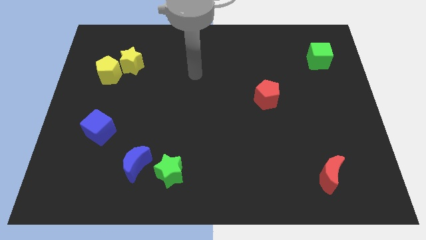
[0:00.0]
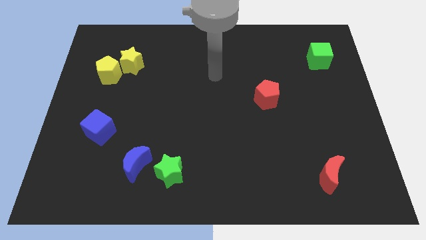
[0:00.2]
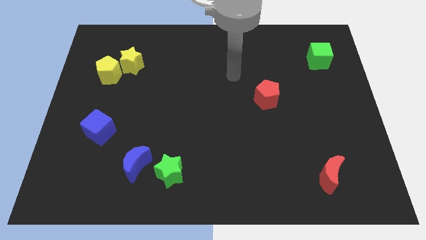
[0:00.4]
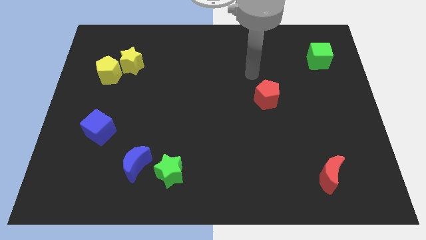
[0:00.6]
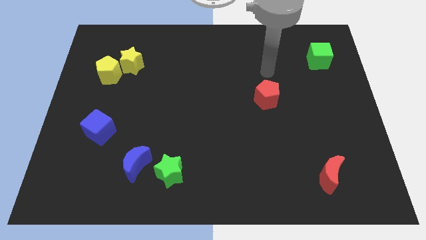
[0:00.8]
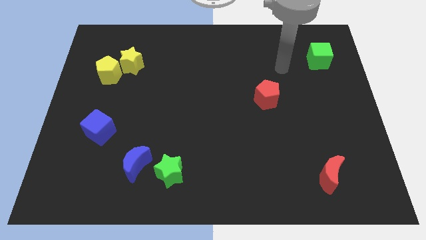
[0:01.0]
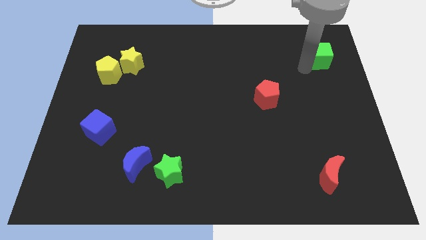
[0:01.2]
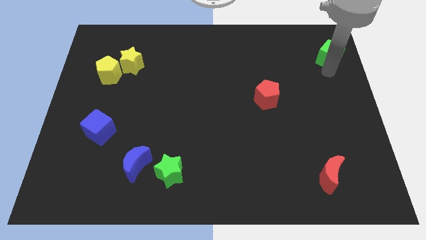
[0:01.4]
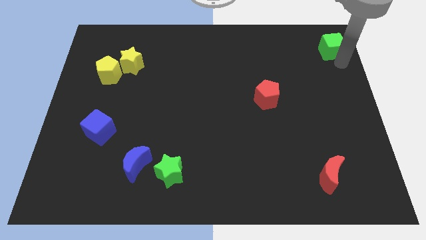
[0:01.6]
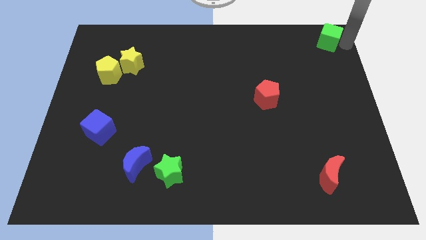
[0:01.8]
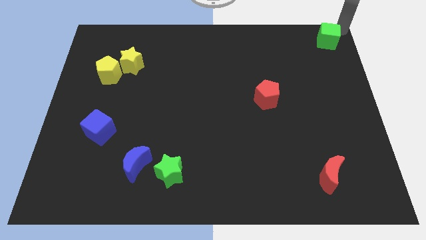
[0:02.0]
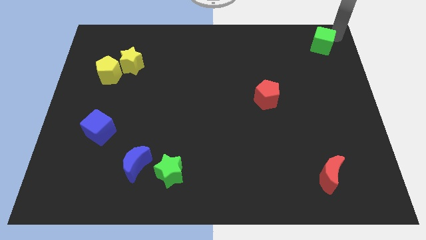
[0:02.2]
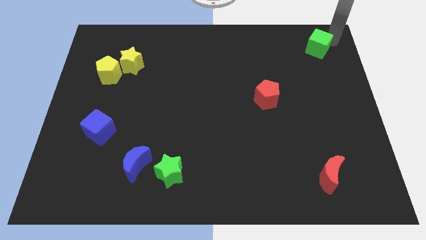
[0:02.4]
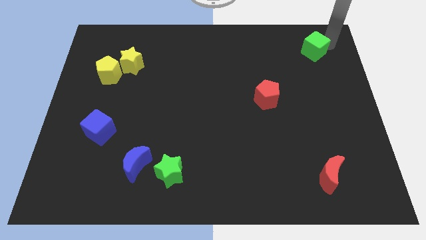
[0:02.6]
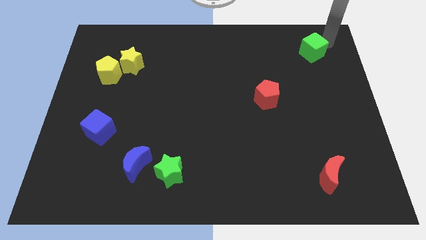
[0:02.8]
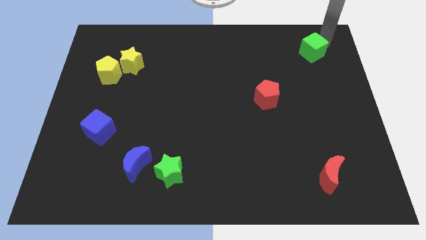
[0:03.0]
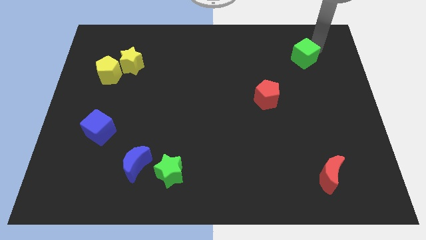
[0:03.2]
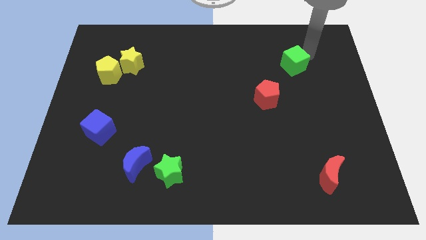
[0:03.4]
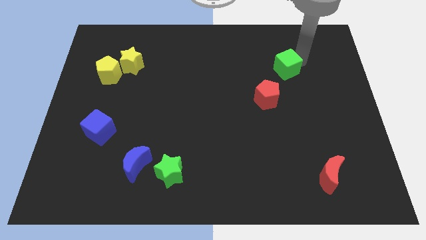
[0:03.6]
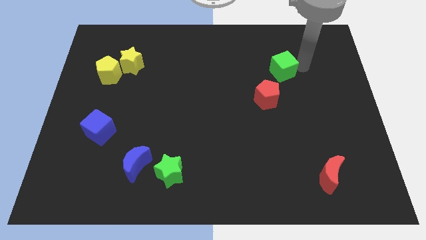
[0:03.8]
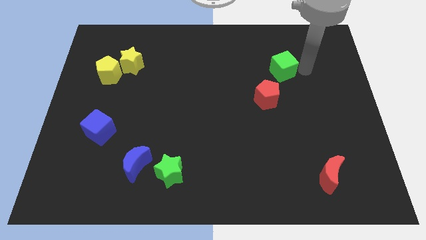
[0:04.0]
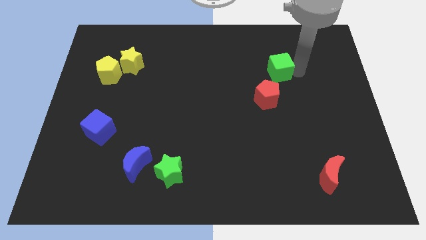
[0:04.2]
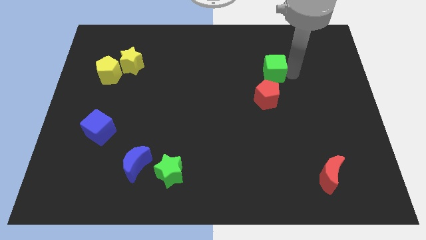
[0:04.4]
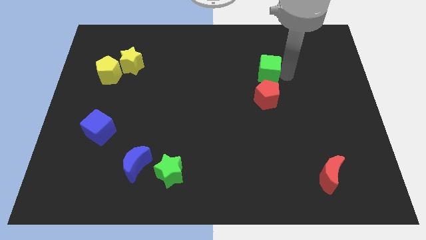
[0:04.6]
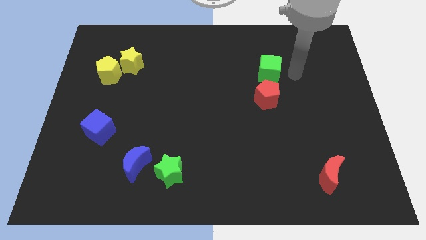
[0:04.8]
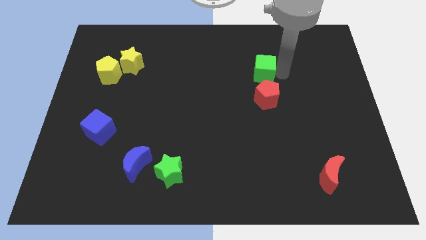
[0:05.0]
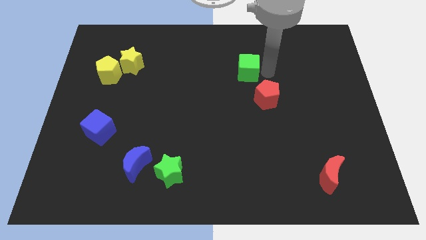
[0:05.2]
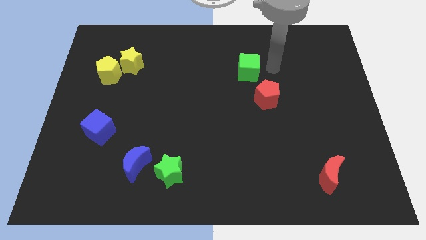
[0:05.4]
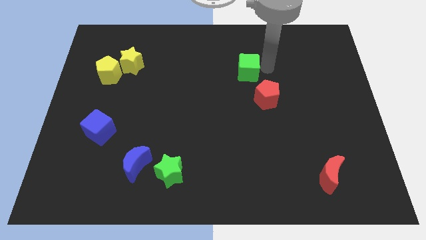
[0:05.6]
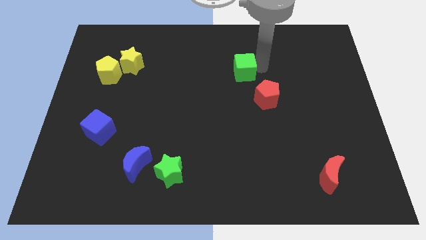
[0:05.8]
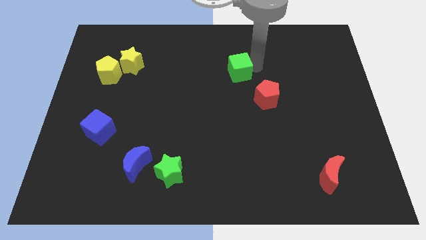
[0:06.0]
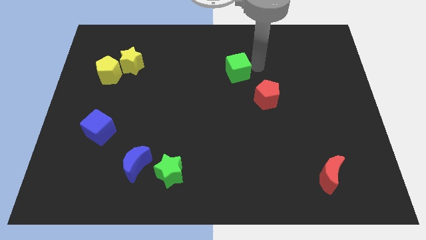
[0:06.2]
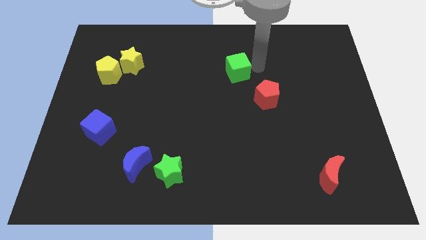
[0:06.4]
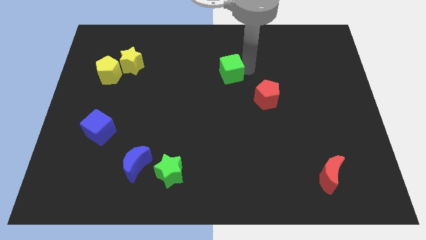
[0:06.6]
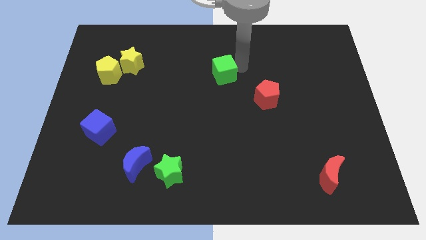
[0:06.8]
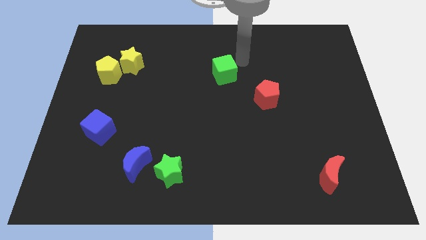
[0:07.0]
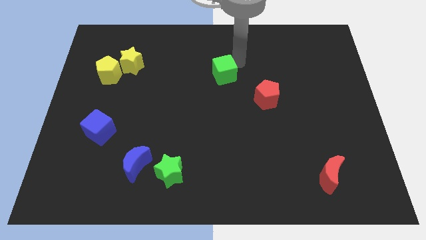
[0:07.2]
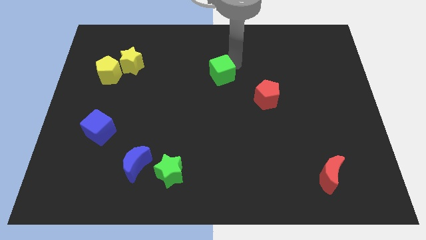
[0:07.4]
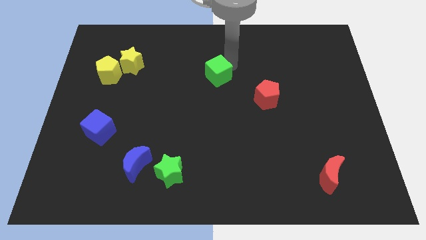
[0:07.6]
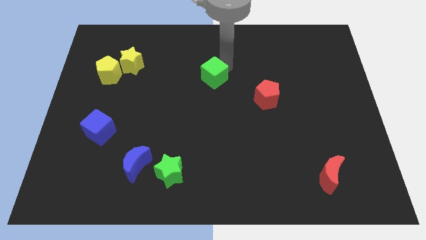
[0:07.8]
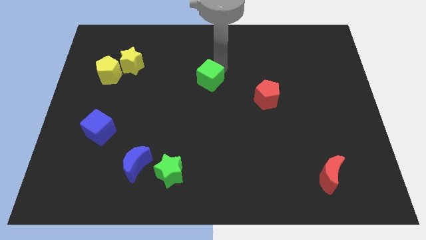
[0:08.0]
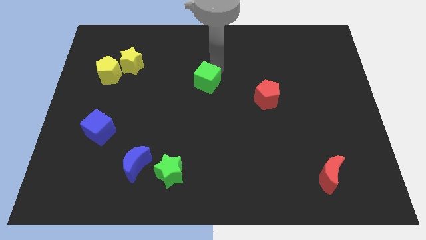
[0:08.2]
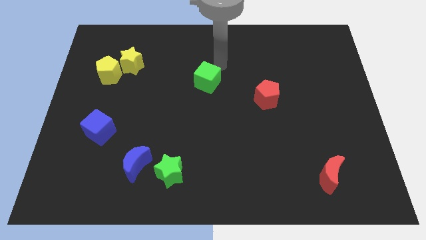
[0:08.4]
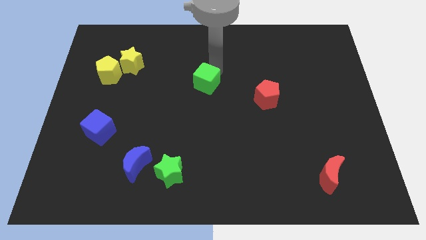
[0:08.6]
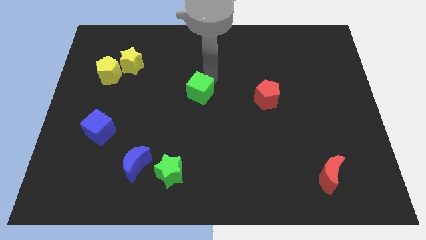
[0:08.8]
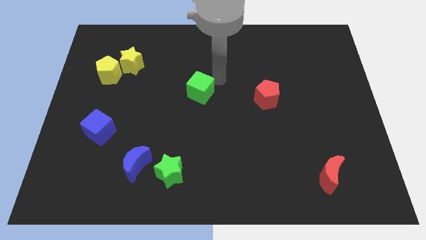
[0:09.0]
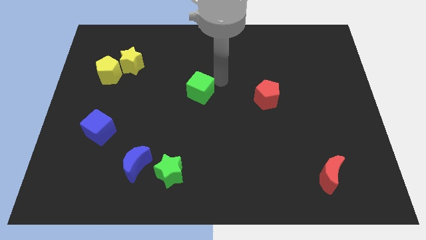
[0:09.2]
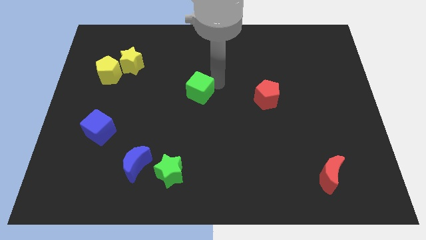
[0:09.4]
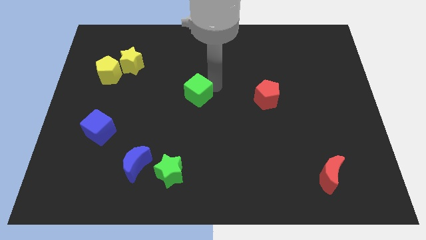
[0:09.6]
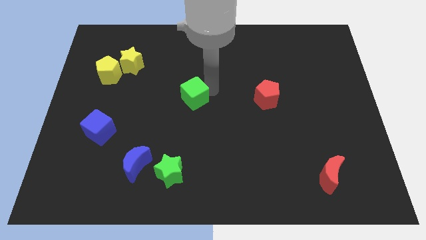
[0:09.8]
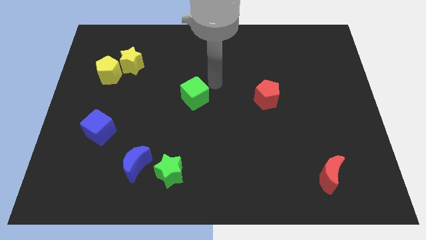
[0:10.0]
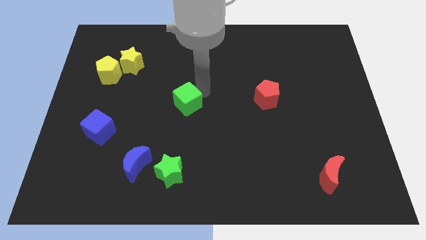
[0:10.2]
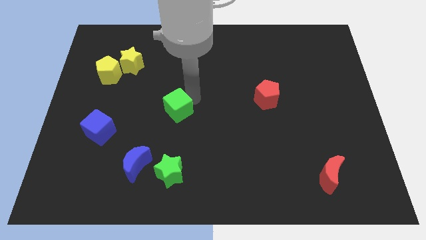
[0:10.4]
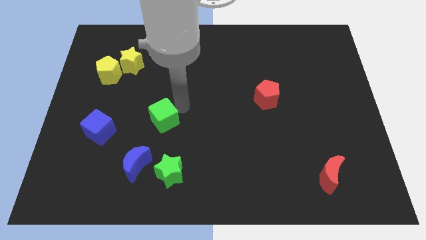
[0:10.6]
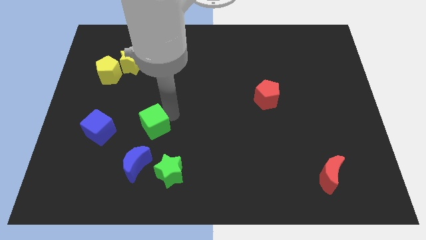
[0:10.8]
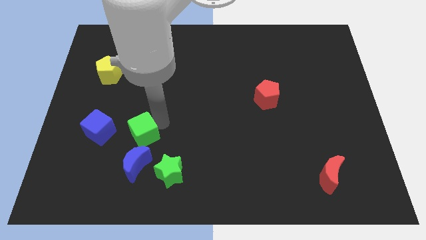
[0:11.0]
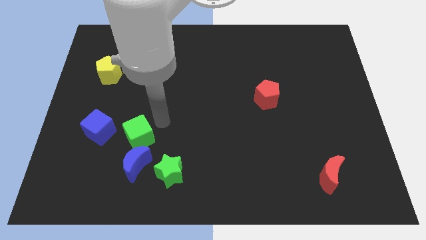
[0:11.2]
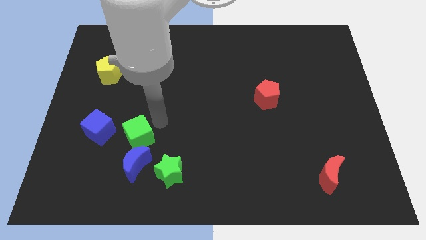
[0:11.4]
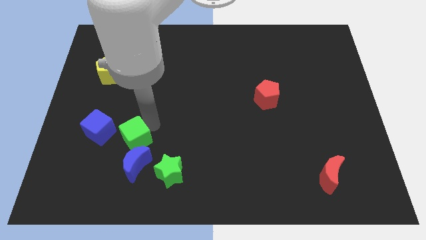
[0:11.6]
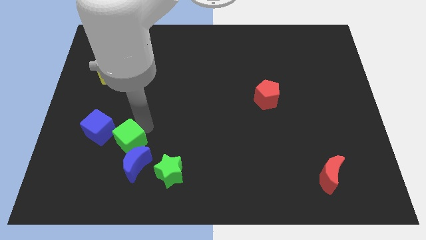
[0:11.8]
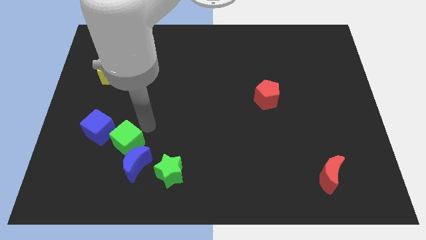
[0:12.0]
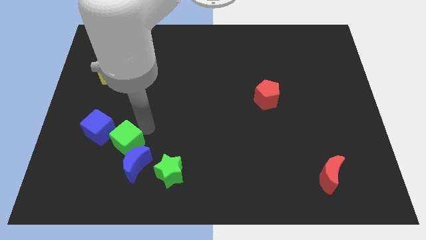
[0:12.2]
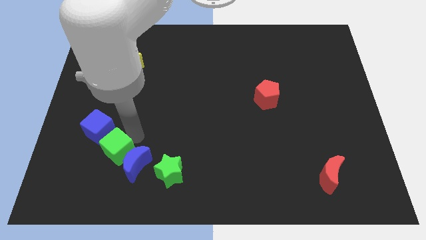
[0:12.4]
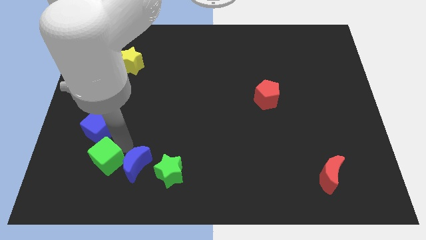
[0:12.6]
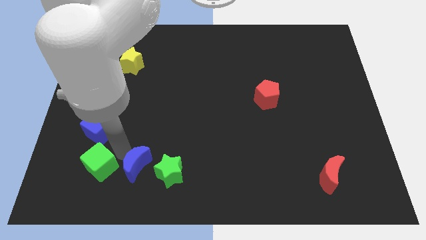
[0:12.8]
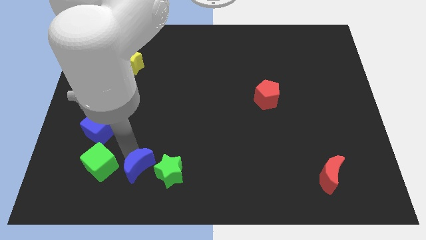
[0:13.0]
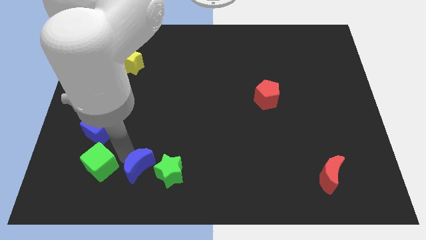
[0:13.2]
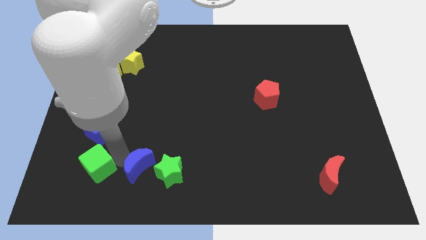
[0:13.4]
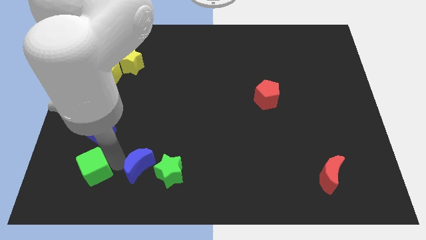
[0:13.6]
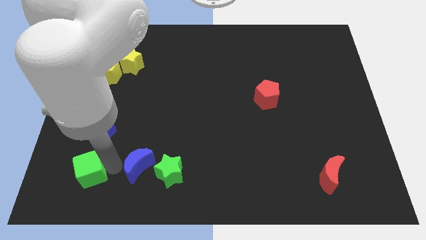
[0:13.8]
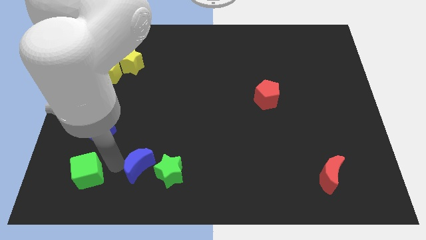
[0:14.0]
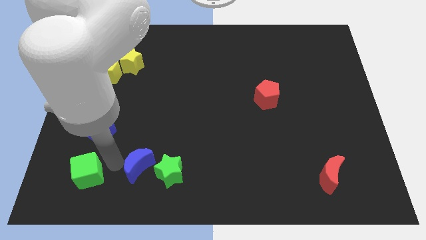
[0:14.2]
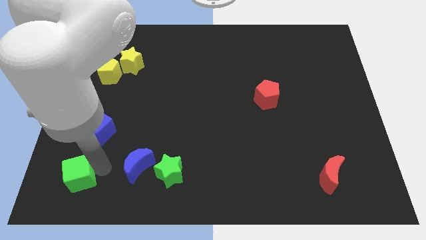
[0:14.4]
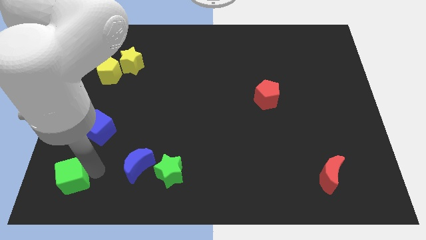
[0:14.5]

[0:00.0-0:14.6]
put the green cube to the bottom left
